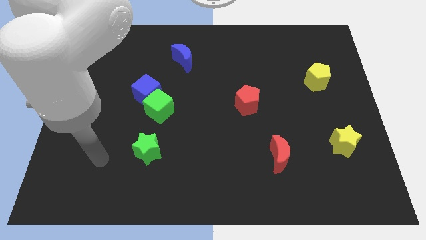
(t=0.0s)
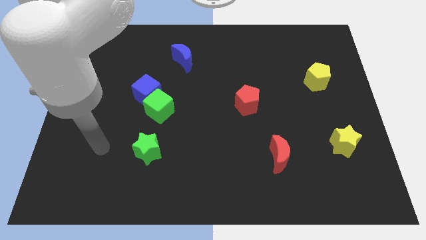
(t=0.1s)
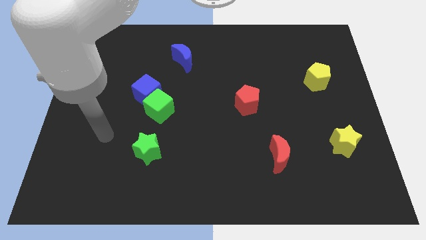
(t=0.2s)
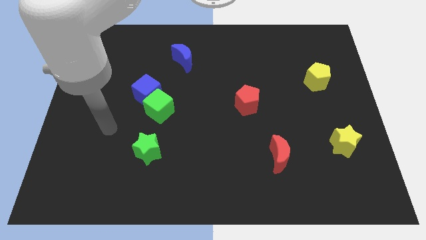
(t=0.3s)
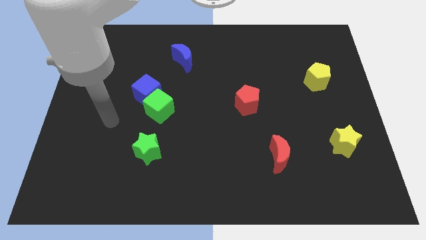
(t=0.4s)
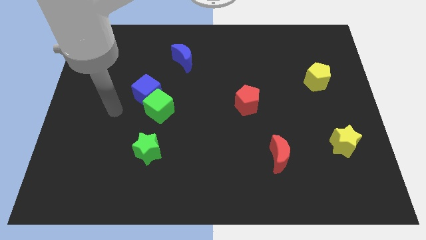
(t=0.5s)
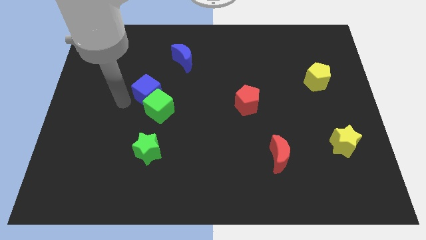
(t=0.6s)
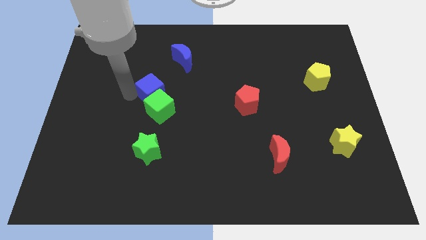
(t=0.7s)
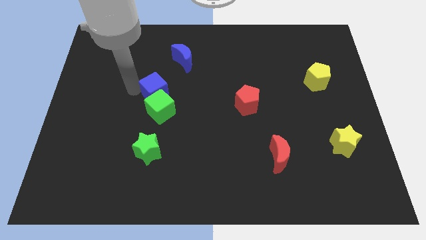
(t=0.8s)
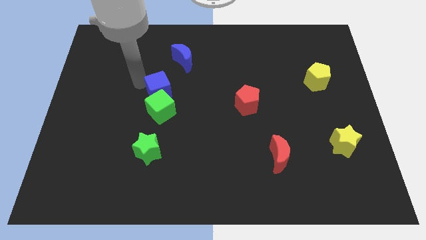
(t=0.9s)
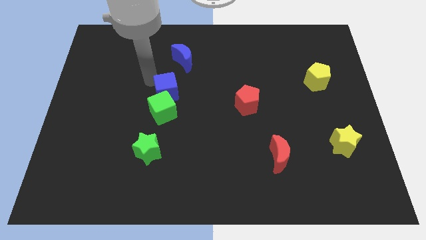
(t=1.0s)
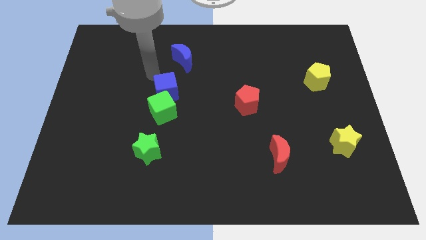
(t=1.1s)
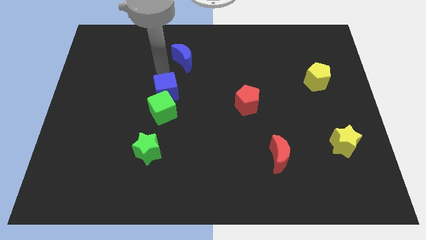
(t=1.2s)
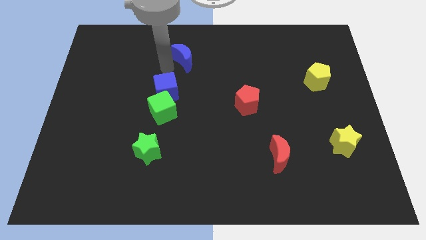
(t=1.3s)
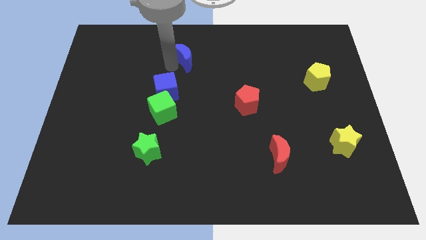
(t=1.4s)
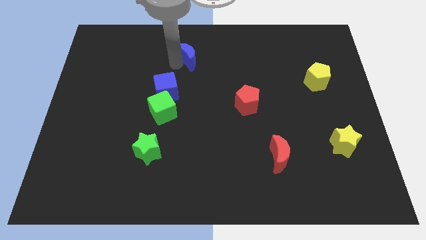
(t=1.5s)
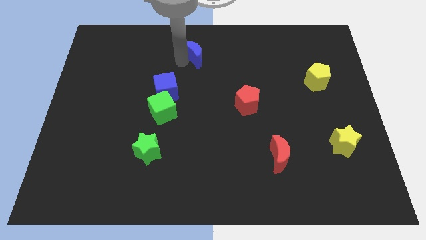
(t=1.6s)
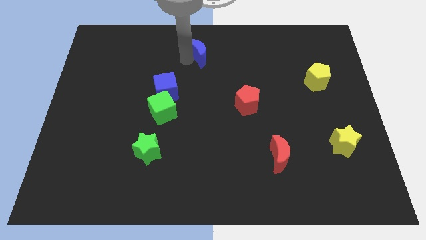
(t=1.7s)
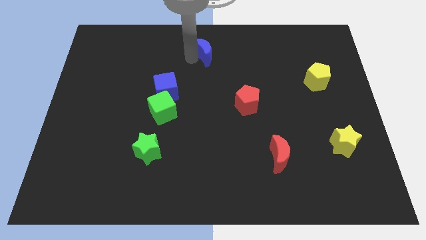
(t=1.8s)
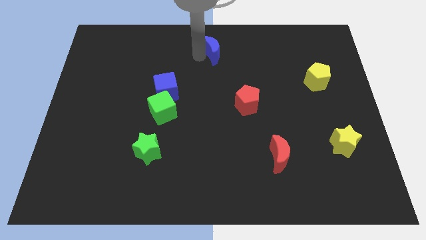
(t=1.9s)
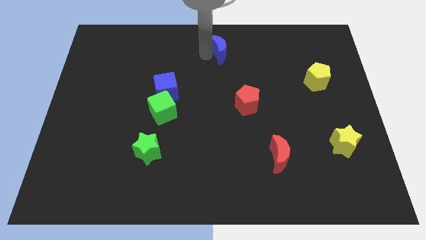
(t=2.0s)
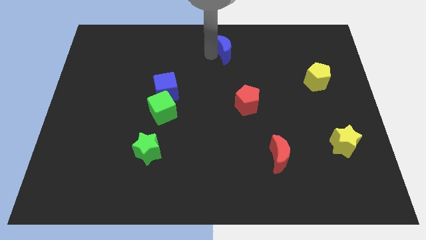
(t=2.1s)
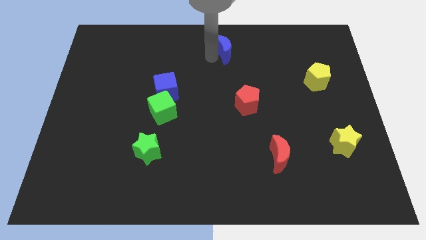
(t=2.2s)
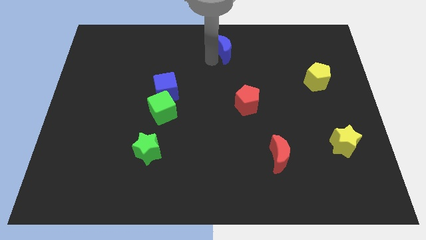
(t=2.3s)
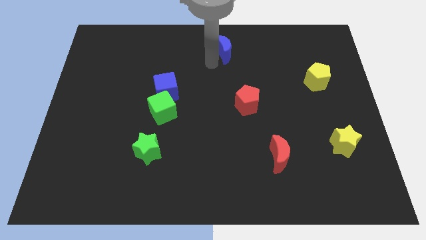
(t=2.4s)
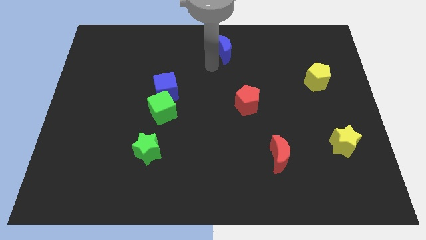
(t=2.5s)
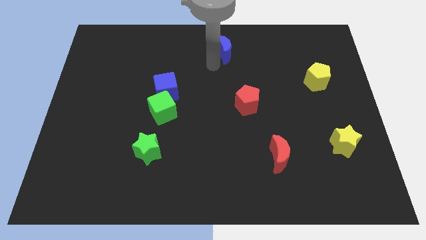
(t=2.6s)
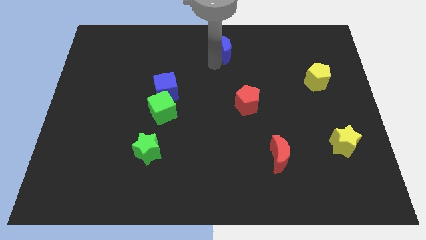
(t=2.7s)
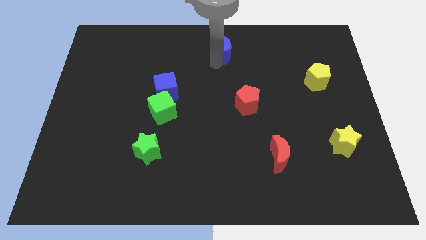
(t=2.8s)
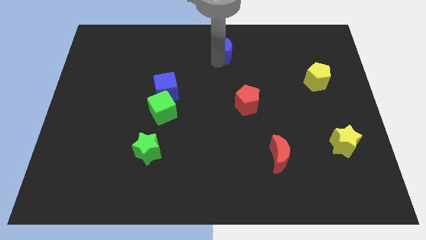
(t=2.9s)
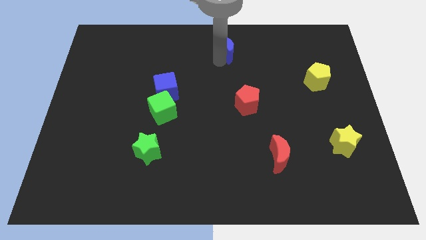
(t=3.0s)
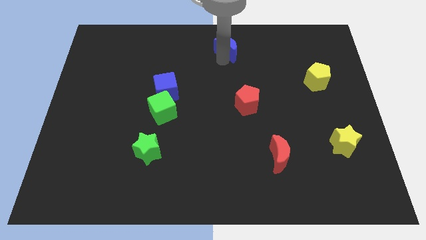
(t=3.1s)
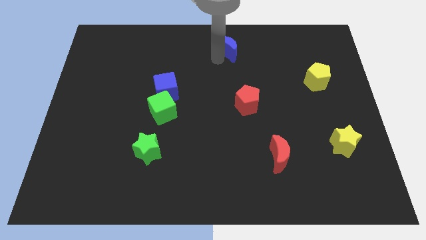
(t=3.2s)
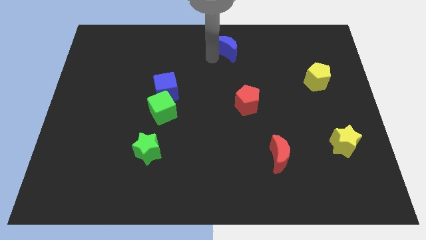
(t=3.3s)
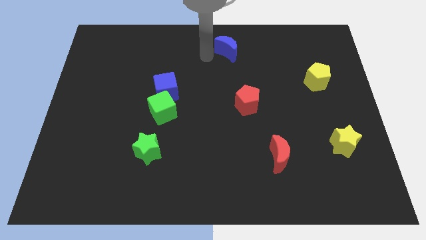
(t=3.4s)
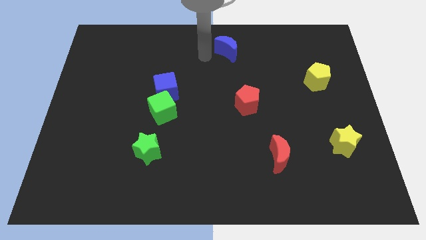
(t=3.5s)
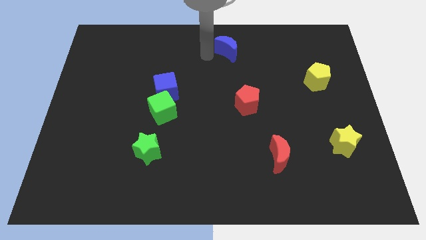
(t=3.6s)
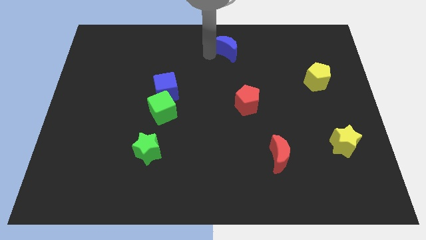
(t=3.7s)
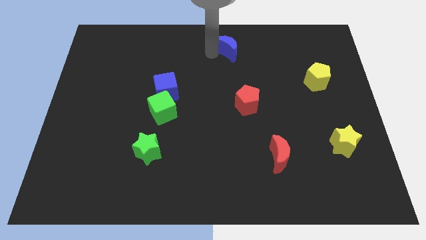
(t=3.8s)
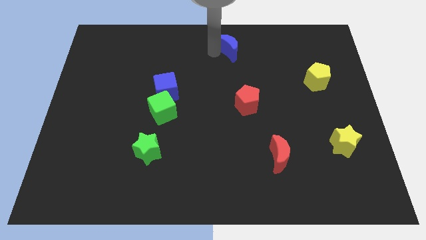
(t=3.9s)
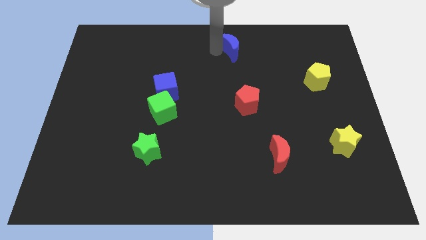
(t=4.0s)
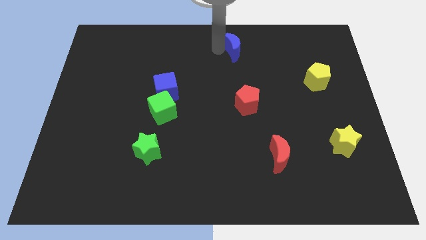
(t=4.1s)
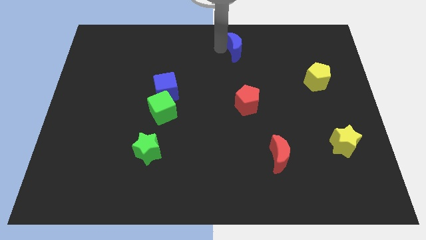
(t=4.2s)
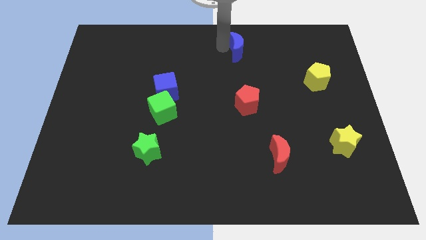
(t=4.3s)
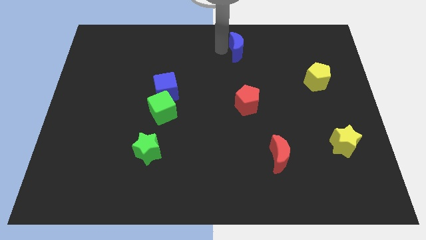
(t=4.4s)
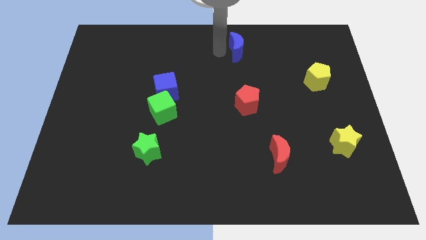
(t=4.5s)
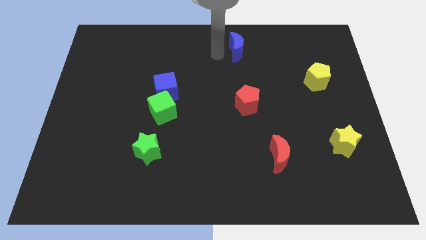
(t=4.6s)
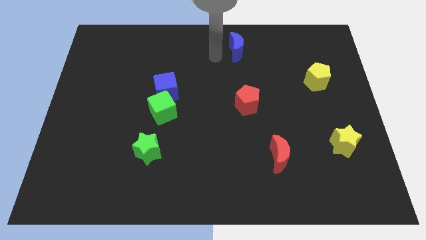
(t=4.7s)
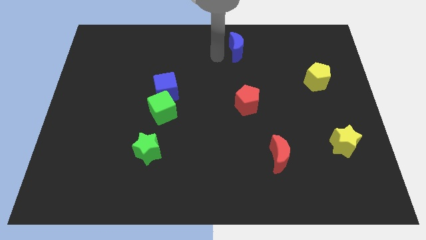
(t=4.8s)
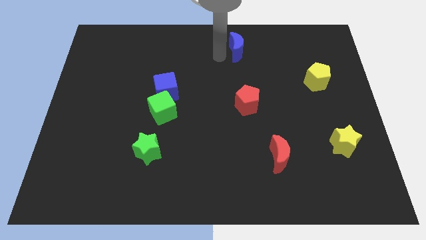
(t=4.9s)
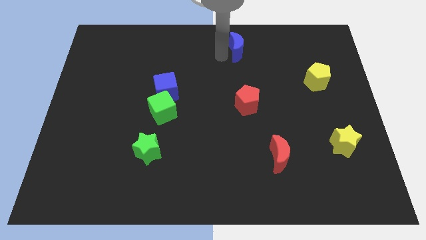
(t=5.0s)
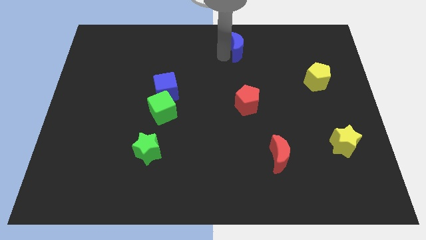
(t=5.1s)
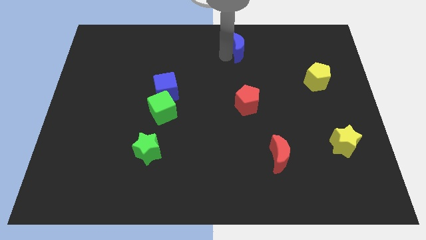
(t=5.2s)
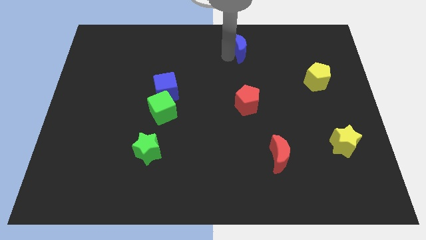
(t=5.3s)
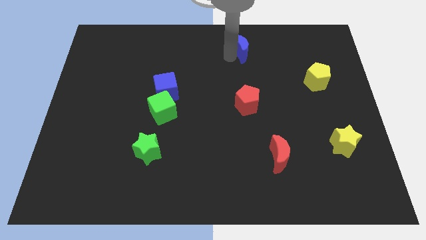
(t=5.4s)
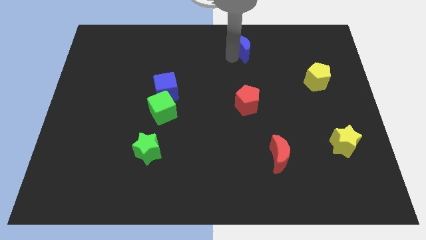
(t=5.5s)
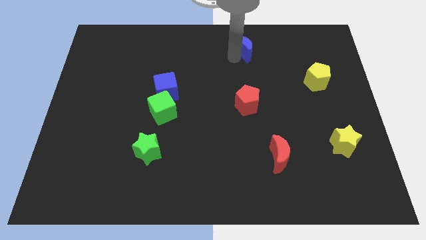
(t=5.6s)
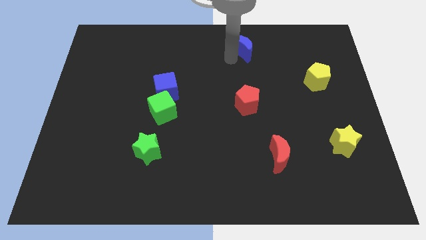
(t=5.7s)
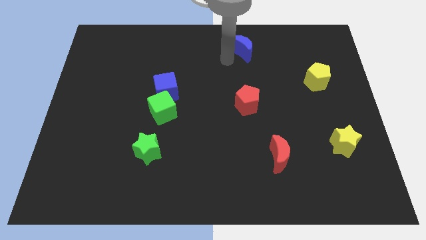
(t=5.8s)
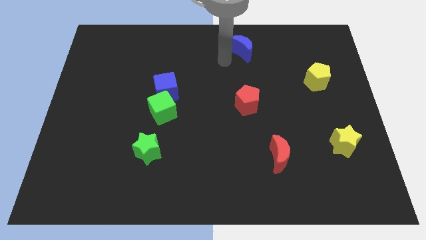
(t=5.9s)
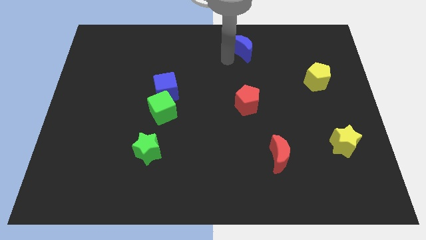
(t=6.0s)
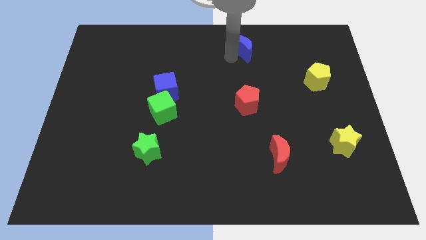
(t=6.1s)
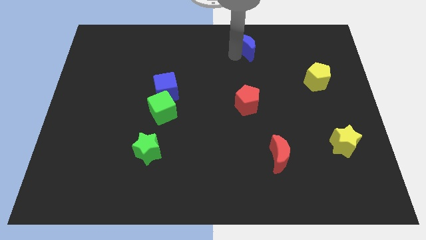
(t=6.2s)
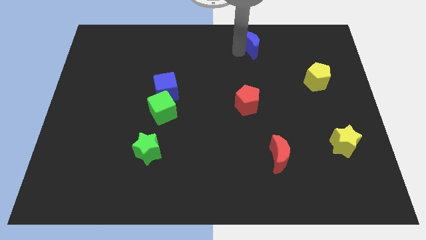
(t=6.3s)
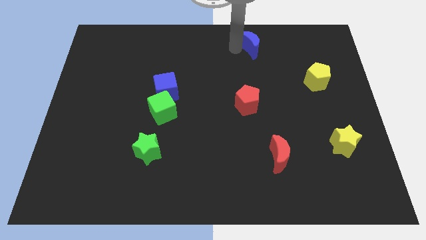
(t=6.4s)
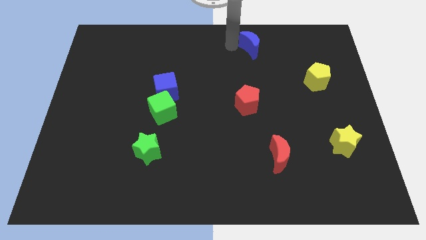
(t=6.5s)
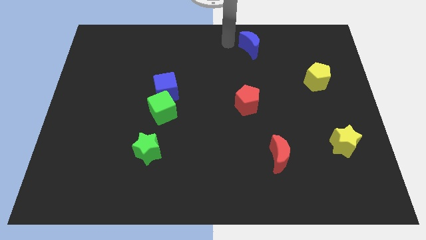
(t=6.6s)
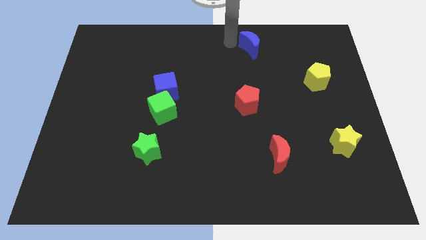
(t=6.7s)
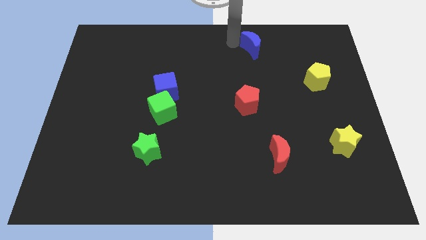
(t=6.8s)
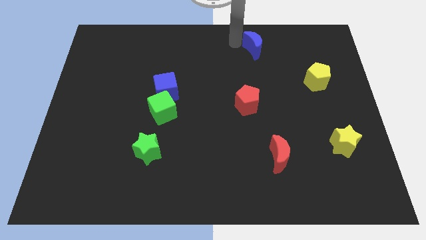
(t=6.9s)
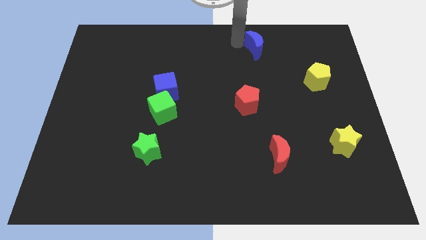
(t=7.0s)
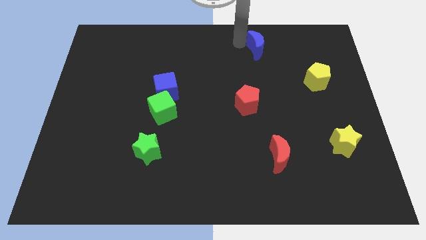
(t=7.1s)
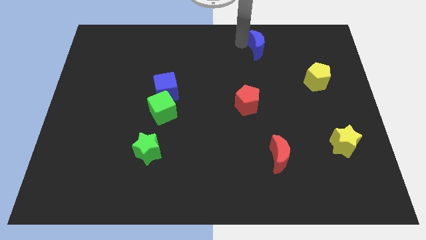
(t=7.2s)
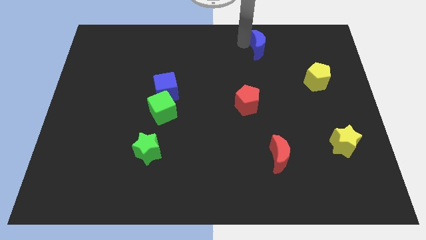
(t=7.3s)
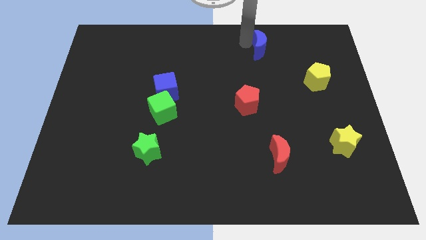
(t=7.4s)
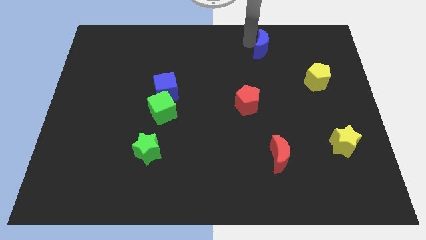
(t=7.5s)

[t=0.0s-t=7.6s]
move the blue moon right

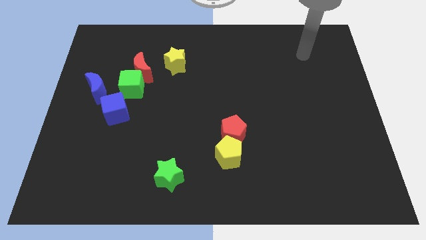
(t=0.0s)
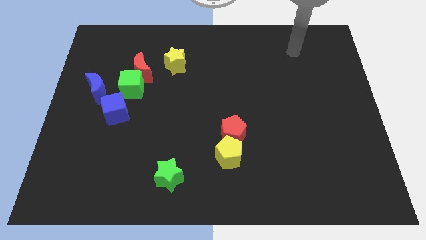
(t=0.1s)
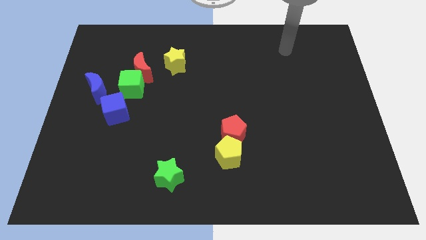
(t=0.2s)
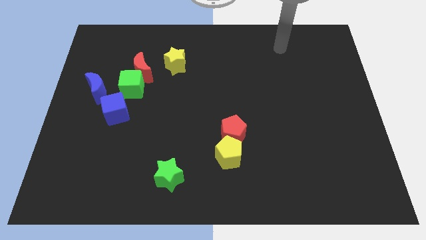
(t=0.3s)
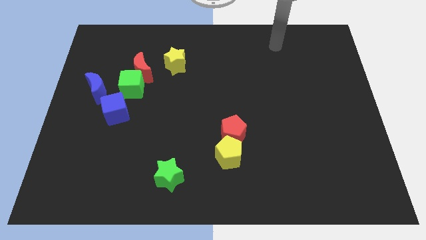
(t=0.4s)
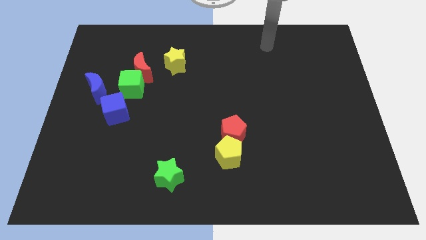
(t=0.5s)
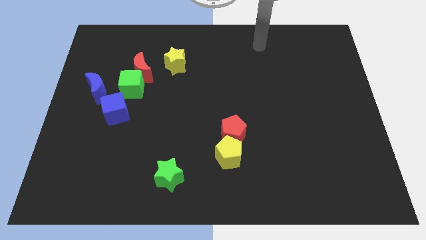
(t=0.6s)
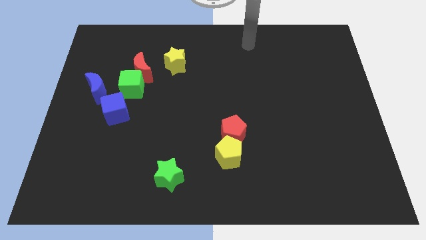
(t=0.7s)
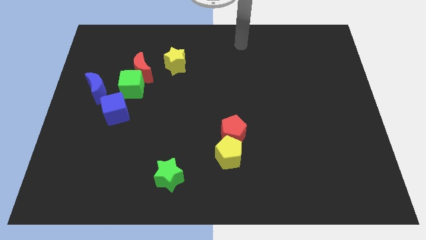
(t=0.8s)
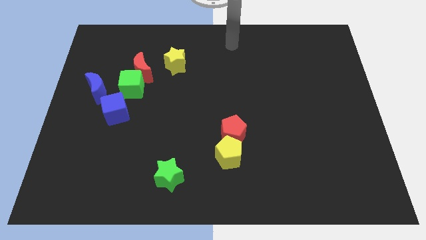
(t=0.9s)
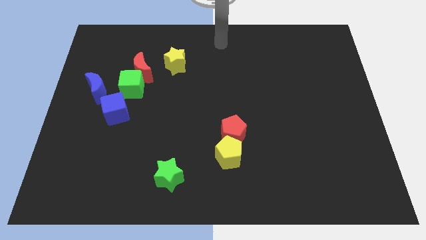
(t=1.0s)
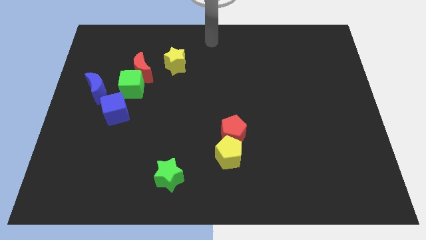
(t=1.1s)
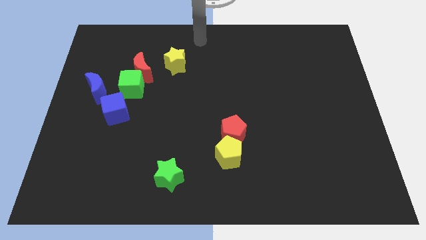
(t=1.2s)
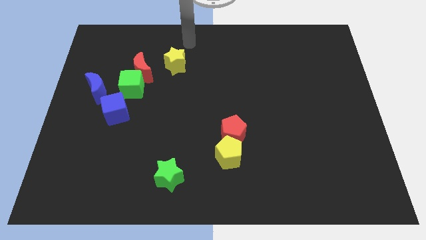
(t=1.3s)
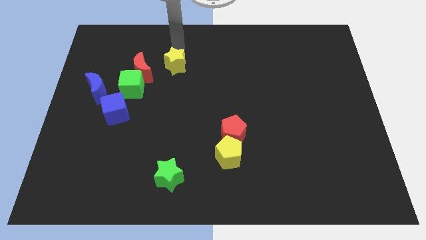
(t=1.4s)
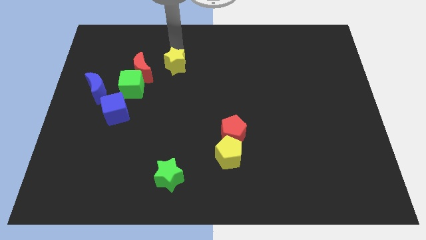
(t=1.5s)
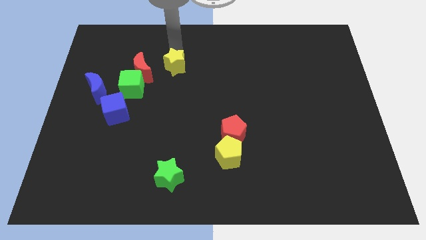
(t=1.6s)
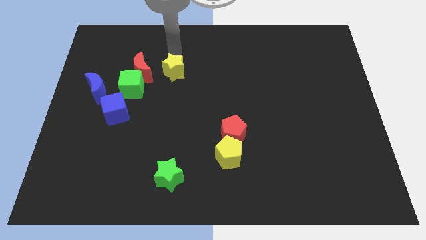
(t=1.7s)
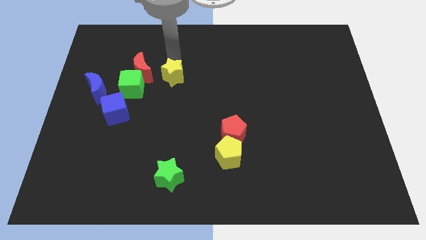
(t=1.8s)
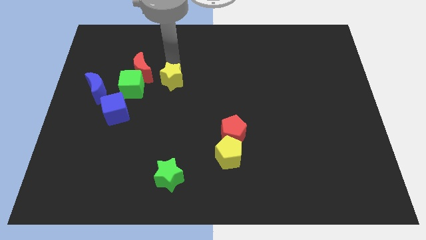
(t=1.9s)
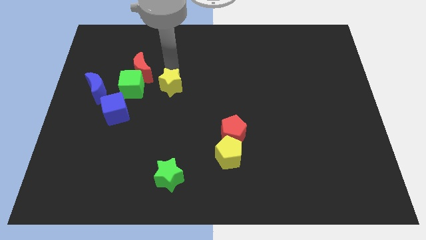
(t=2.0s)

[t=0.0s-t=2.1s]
push the yellow star a little downwards
